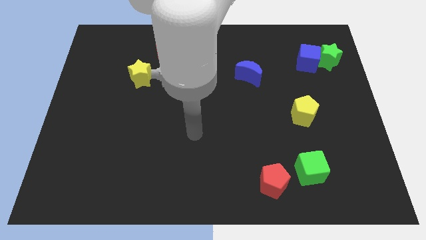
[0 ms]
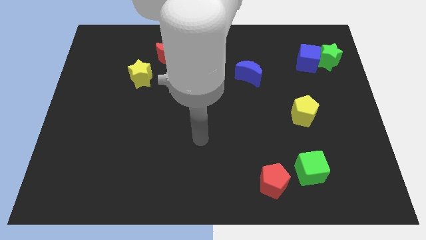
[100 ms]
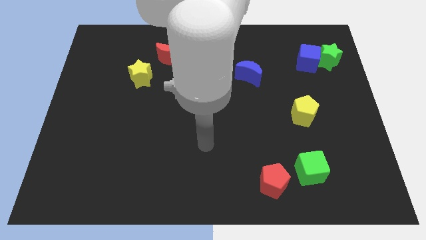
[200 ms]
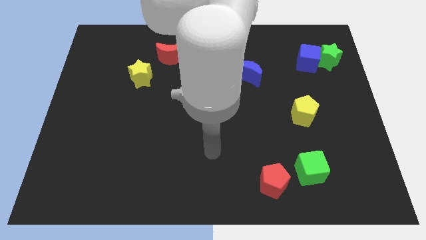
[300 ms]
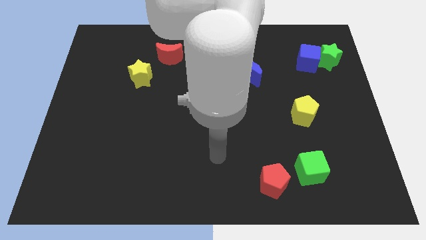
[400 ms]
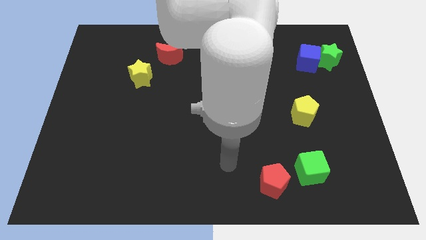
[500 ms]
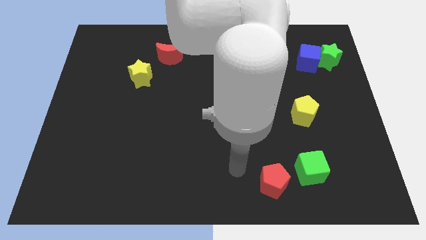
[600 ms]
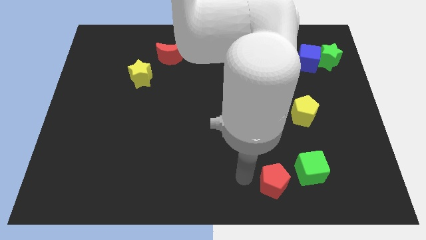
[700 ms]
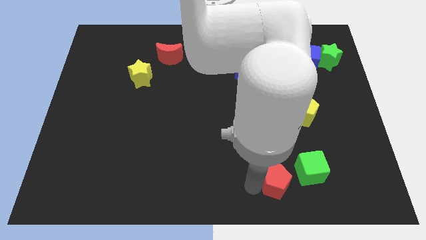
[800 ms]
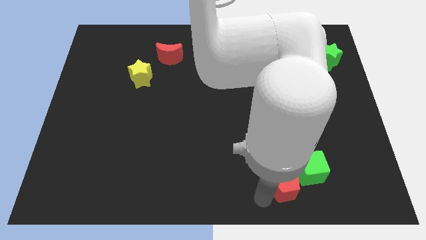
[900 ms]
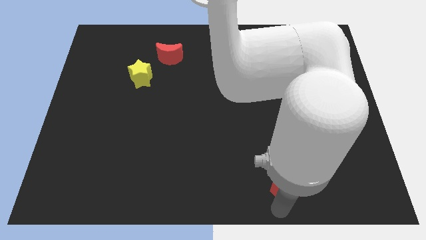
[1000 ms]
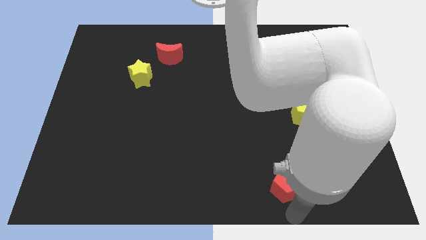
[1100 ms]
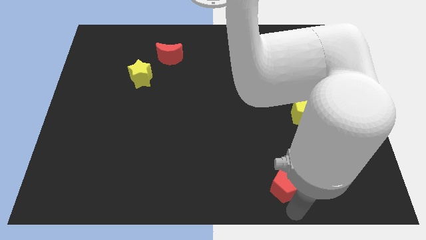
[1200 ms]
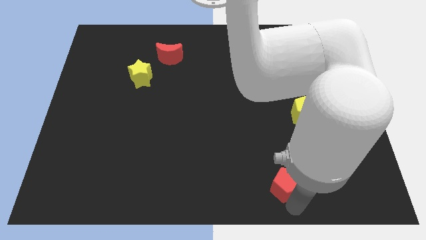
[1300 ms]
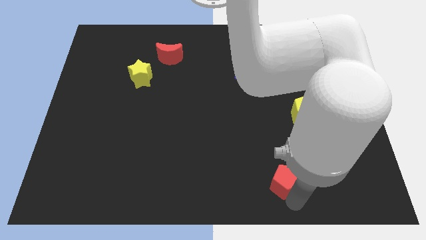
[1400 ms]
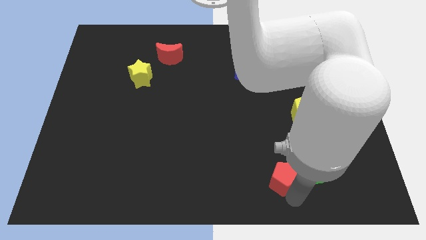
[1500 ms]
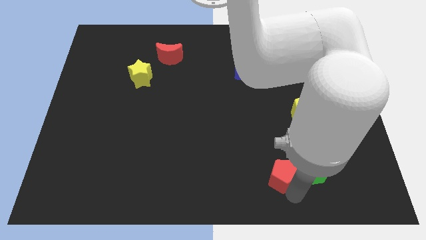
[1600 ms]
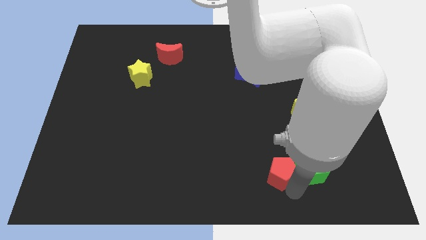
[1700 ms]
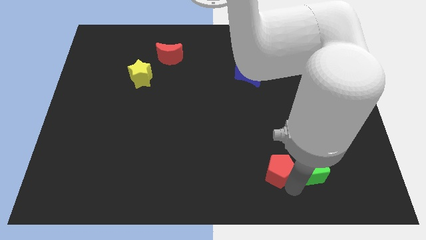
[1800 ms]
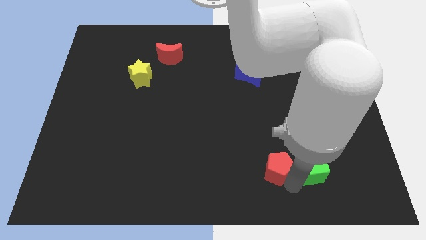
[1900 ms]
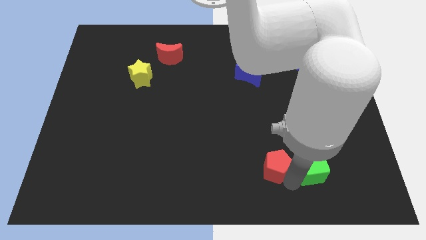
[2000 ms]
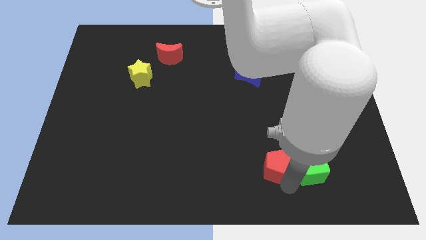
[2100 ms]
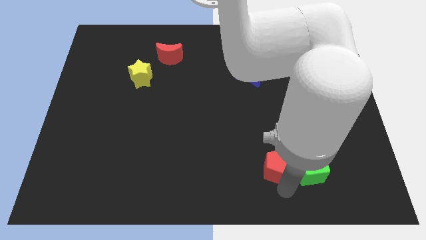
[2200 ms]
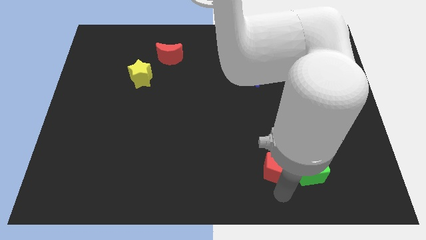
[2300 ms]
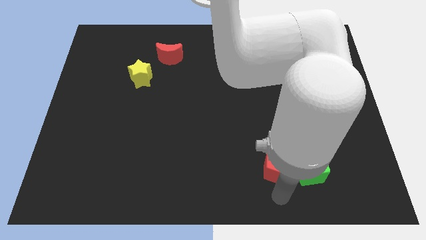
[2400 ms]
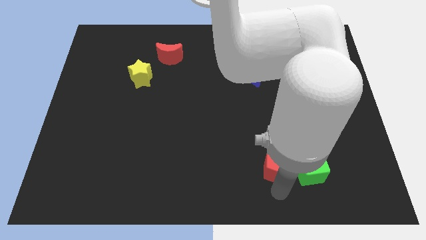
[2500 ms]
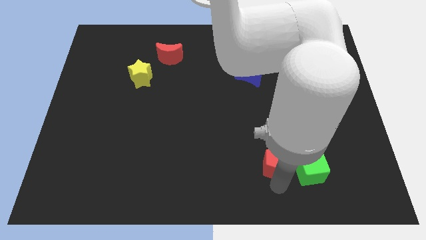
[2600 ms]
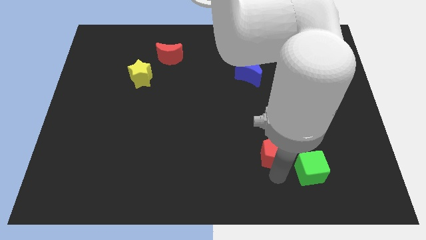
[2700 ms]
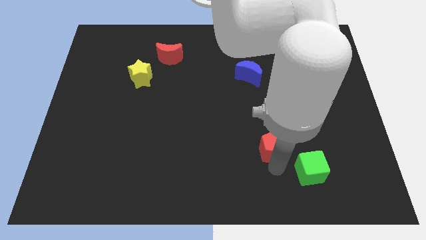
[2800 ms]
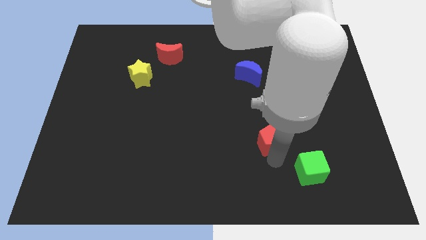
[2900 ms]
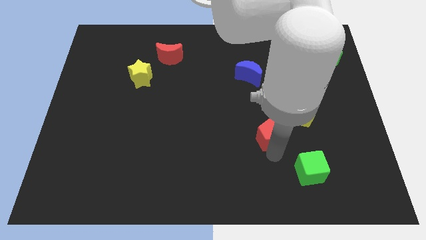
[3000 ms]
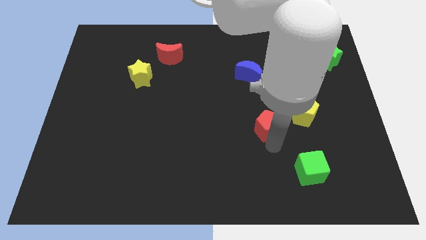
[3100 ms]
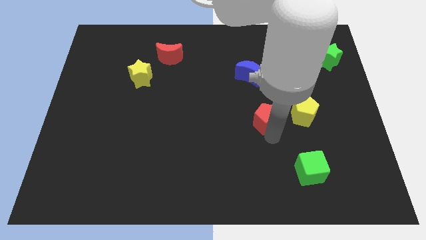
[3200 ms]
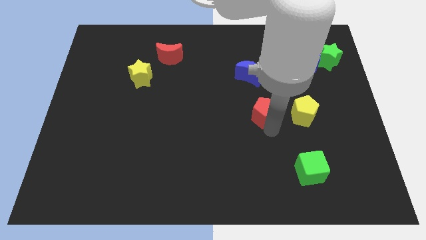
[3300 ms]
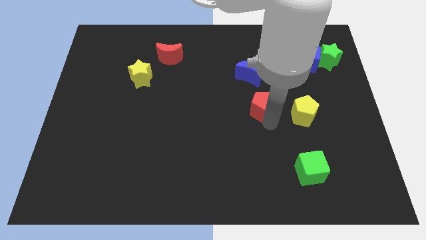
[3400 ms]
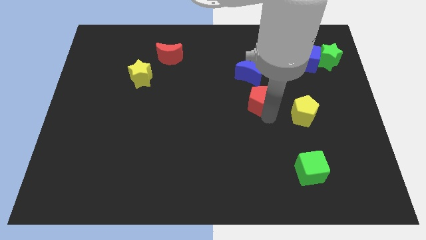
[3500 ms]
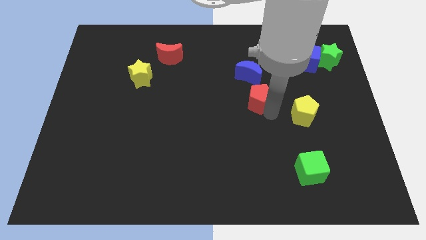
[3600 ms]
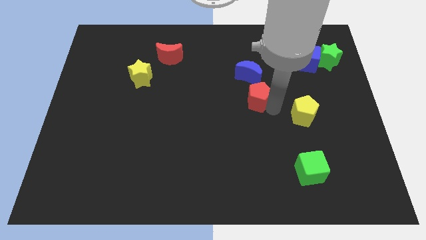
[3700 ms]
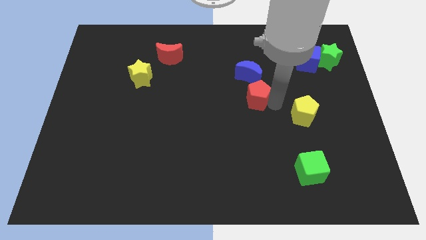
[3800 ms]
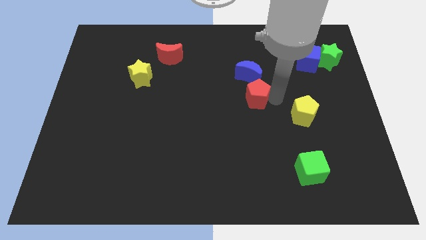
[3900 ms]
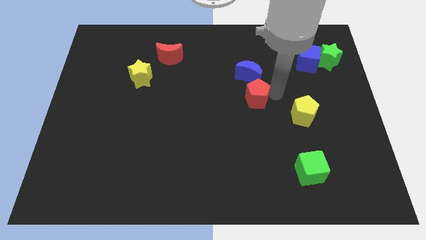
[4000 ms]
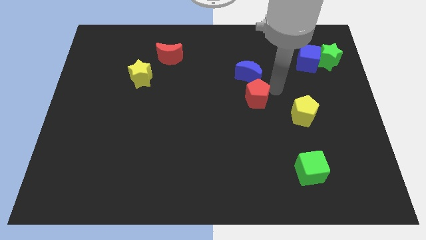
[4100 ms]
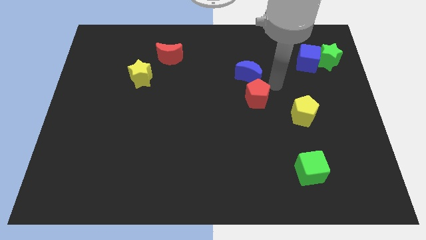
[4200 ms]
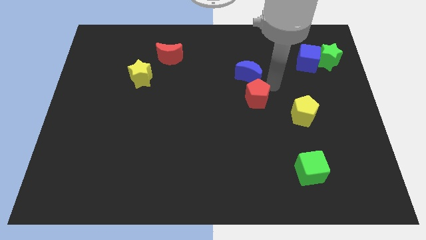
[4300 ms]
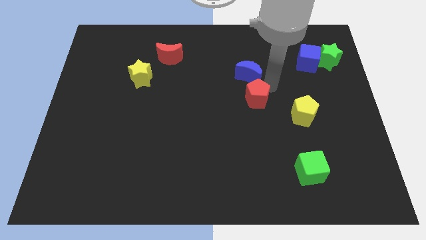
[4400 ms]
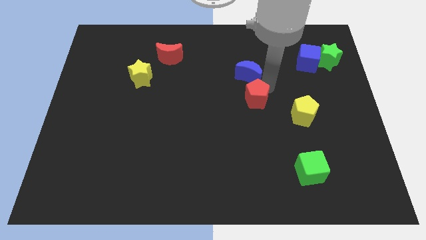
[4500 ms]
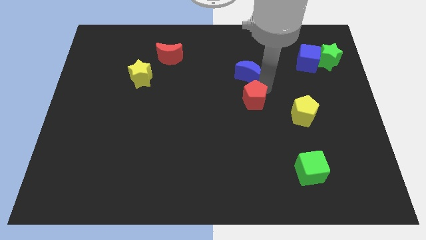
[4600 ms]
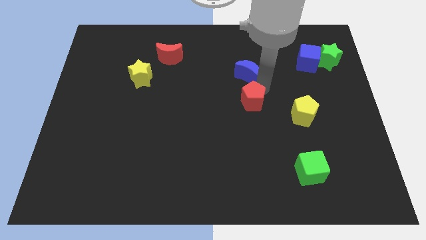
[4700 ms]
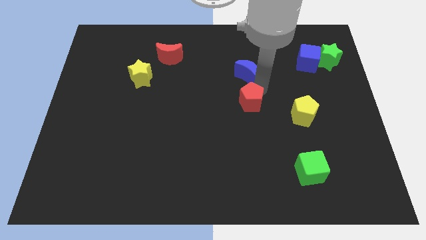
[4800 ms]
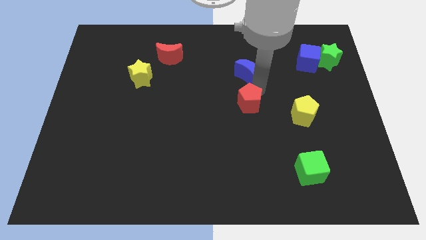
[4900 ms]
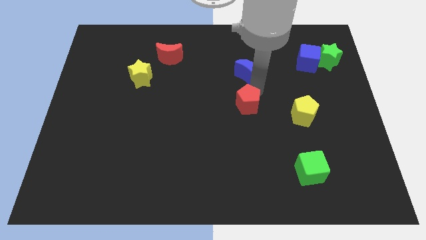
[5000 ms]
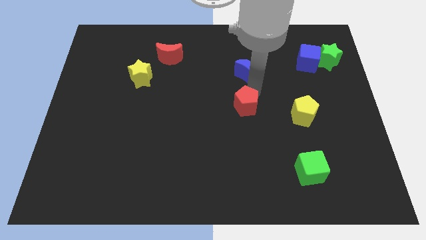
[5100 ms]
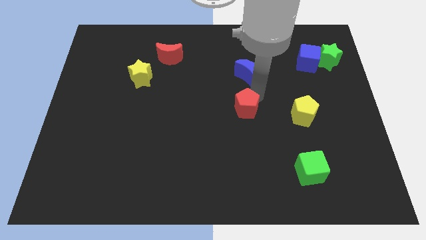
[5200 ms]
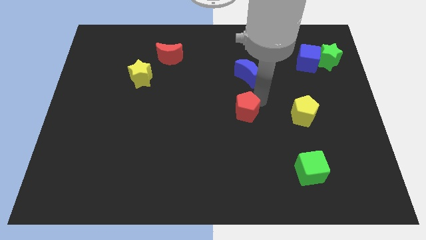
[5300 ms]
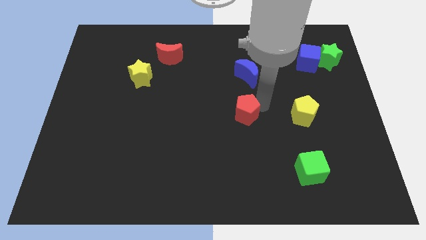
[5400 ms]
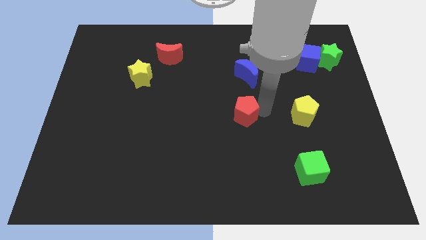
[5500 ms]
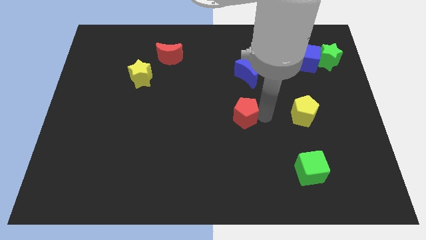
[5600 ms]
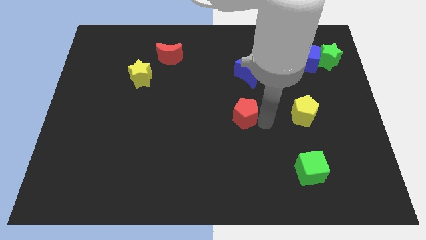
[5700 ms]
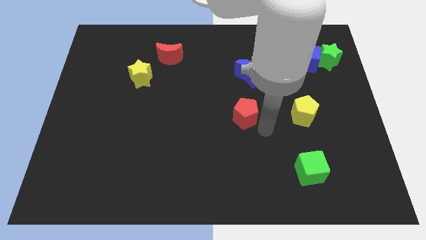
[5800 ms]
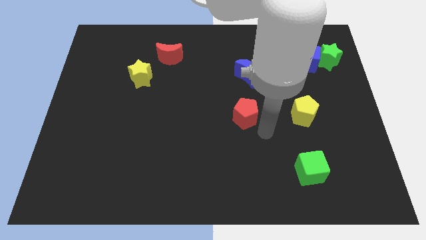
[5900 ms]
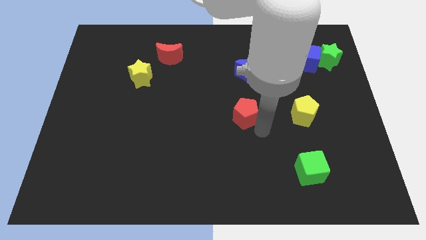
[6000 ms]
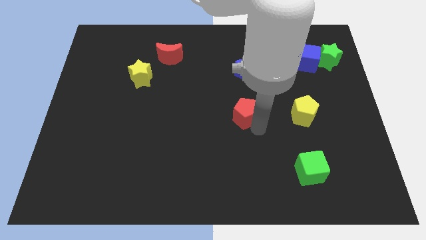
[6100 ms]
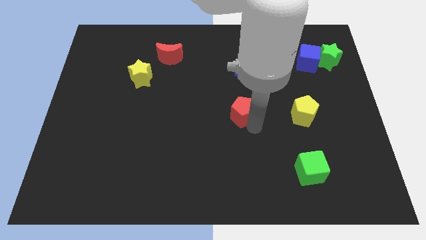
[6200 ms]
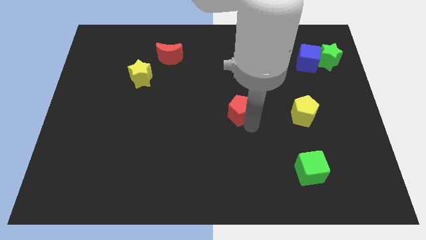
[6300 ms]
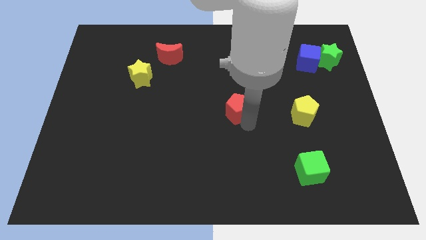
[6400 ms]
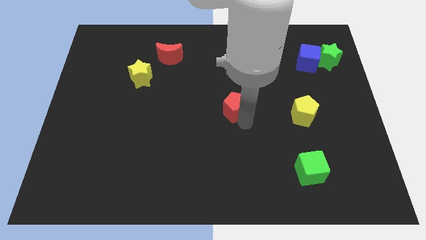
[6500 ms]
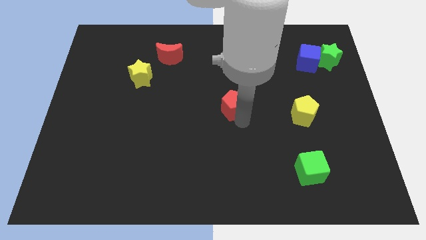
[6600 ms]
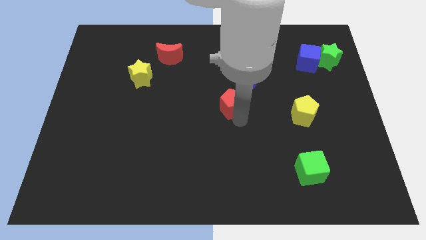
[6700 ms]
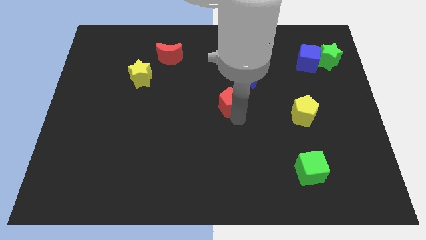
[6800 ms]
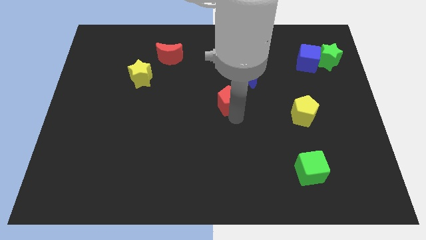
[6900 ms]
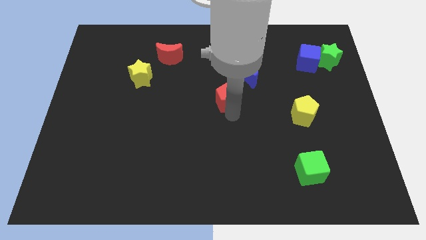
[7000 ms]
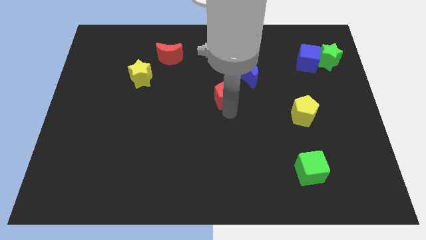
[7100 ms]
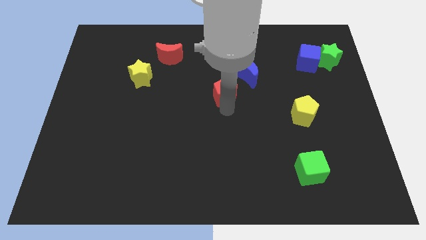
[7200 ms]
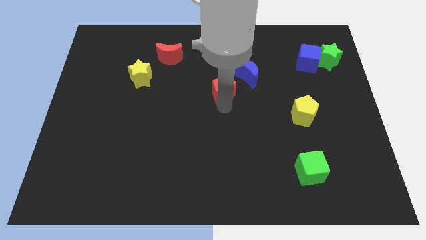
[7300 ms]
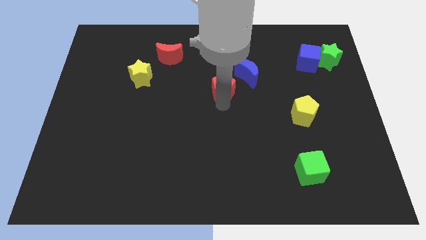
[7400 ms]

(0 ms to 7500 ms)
push the red pentagon to the left side of the blue moon
